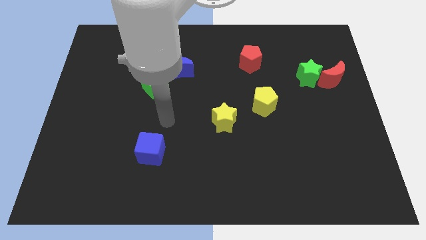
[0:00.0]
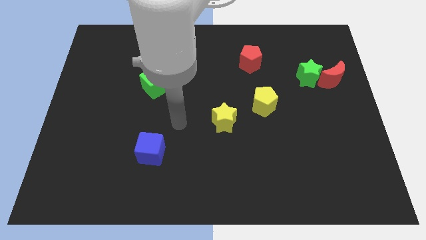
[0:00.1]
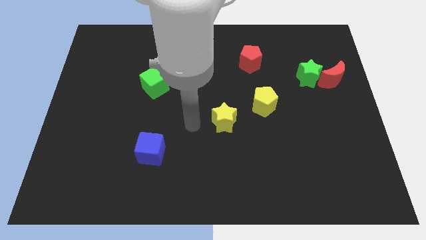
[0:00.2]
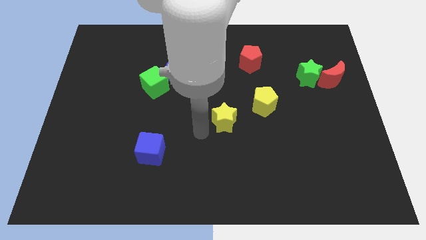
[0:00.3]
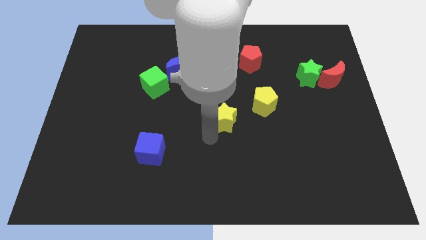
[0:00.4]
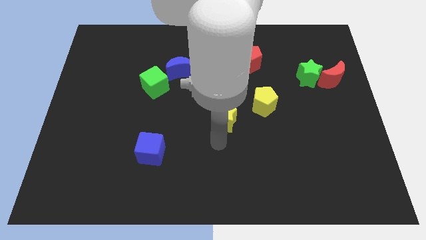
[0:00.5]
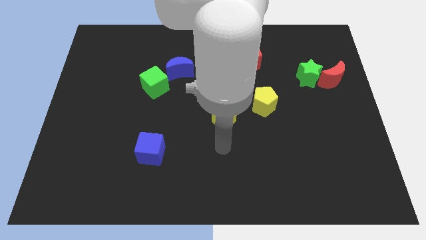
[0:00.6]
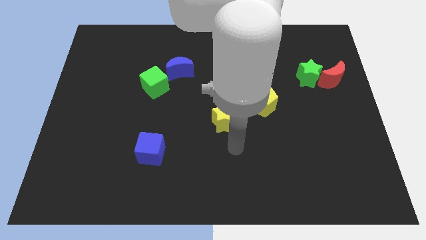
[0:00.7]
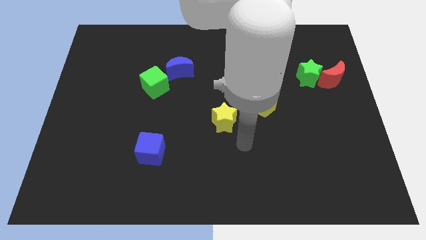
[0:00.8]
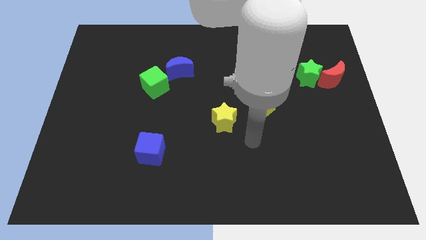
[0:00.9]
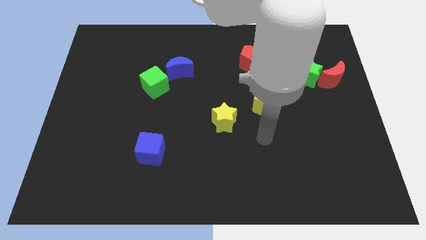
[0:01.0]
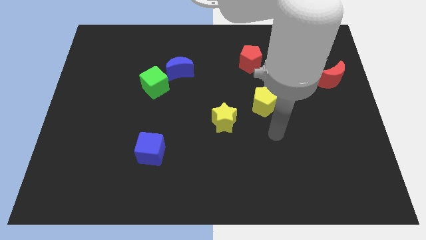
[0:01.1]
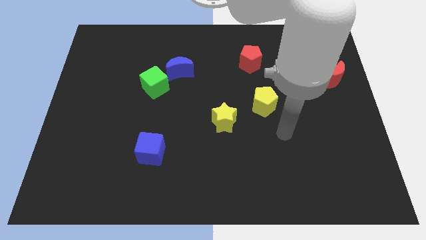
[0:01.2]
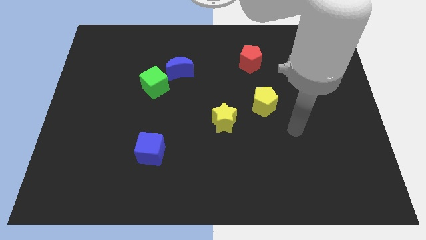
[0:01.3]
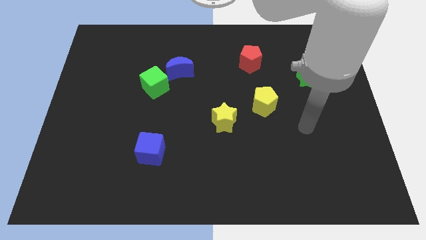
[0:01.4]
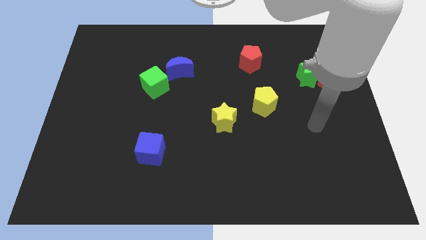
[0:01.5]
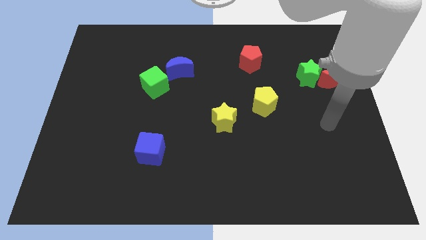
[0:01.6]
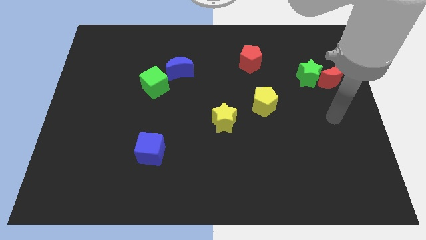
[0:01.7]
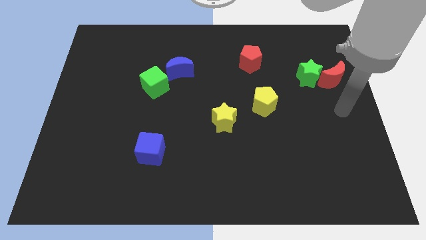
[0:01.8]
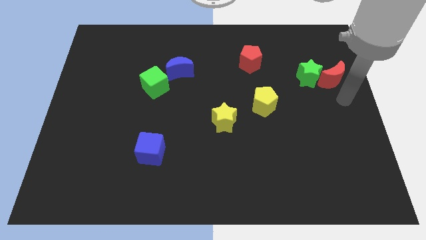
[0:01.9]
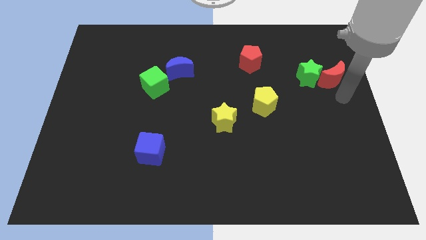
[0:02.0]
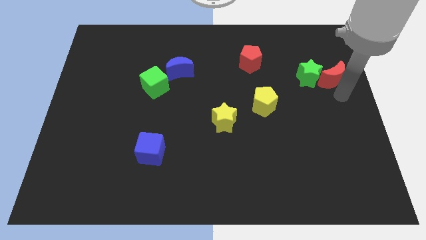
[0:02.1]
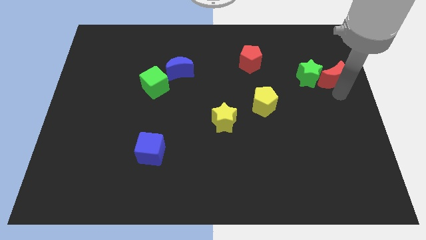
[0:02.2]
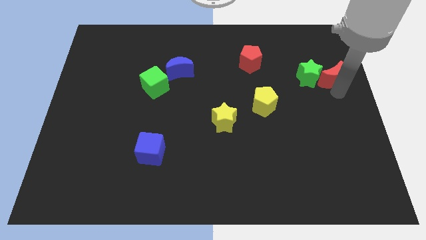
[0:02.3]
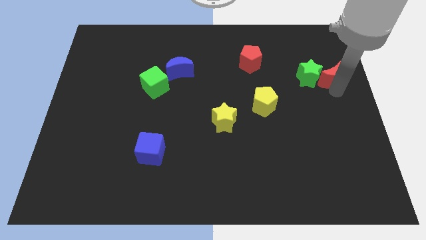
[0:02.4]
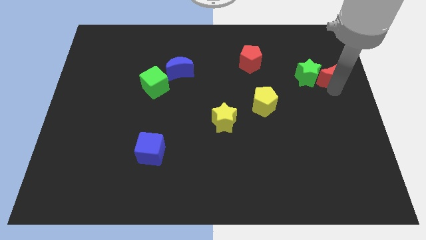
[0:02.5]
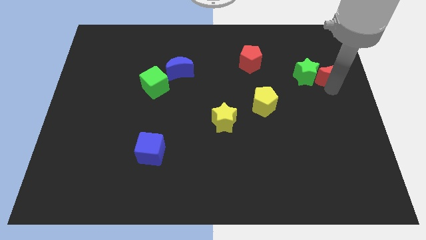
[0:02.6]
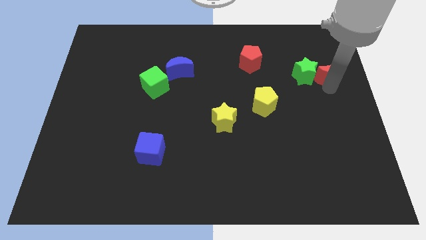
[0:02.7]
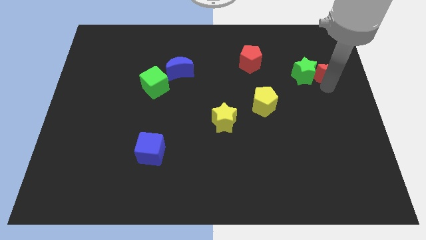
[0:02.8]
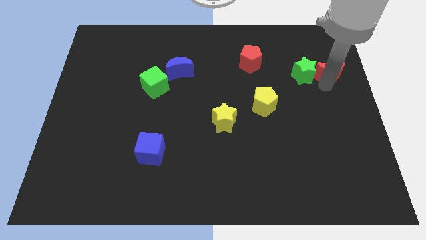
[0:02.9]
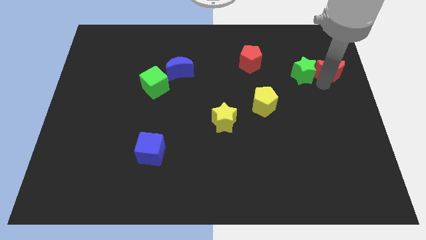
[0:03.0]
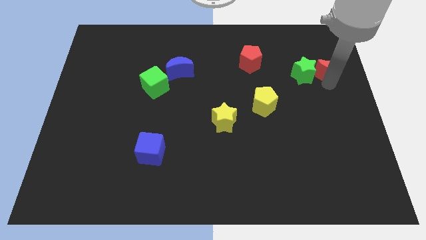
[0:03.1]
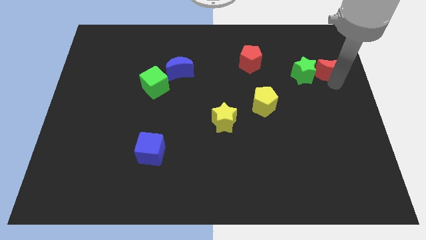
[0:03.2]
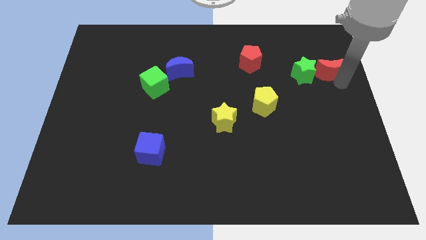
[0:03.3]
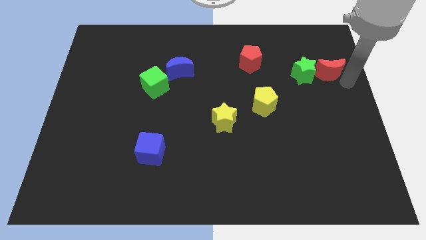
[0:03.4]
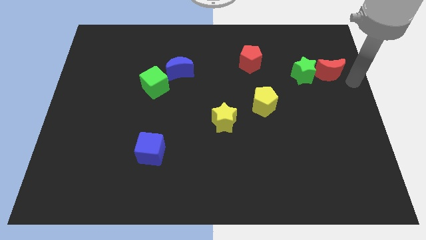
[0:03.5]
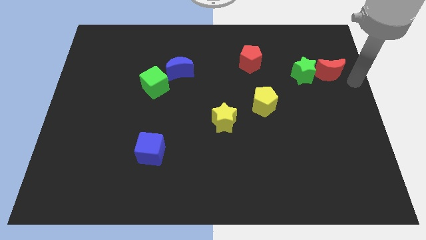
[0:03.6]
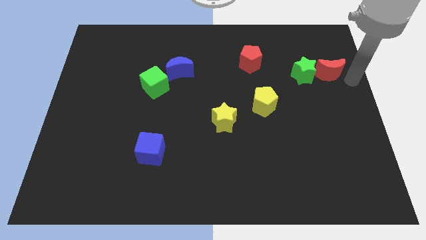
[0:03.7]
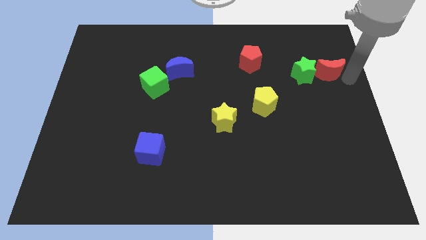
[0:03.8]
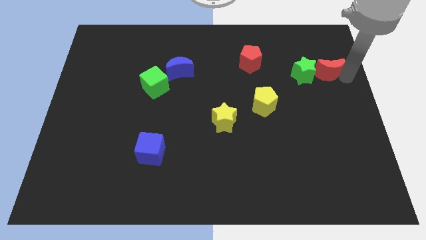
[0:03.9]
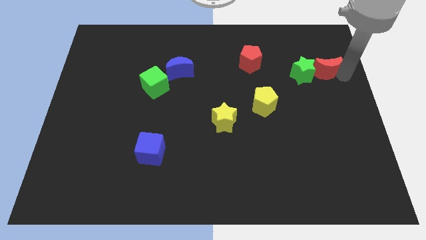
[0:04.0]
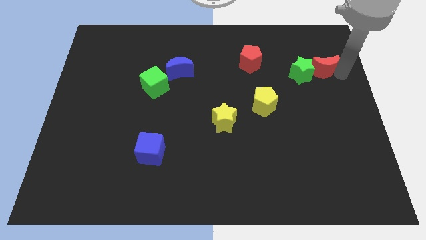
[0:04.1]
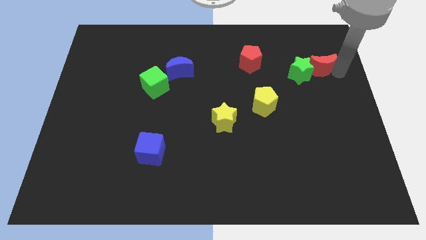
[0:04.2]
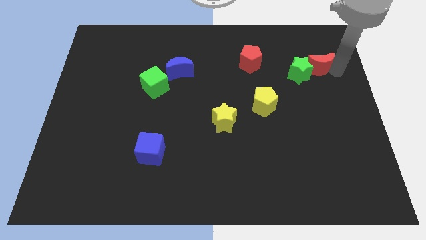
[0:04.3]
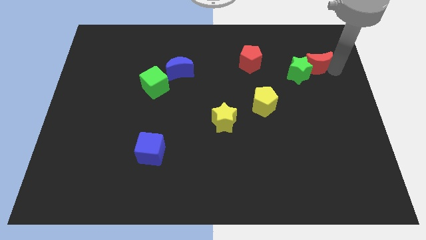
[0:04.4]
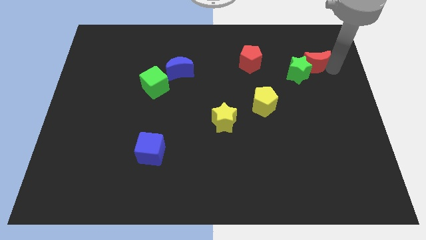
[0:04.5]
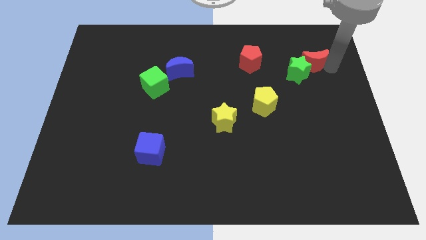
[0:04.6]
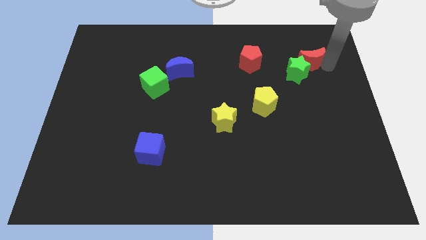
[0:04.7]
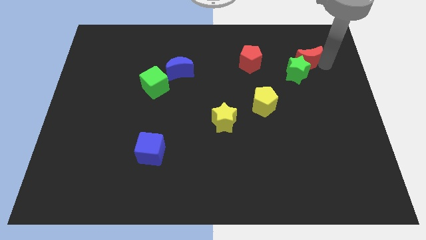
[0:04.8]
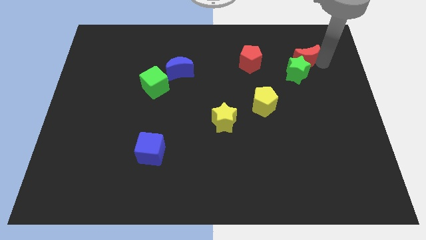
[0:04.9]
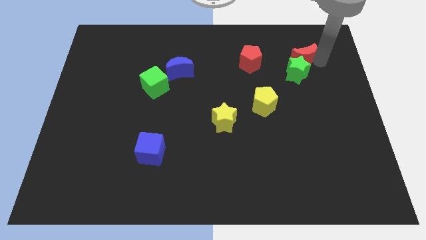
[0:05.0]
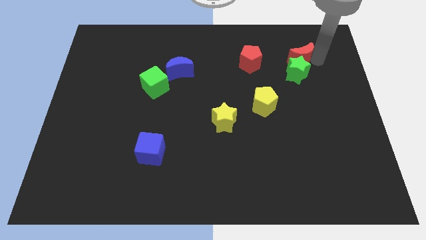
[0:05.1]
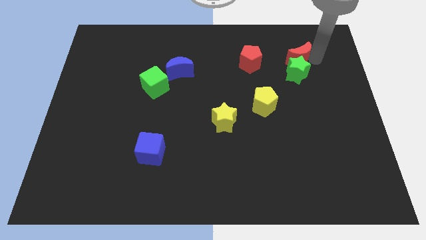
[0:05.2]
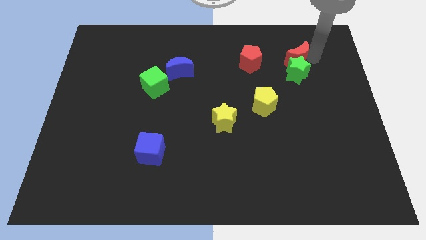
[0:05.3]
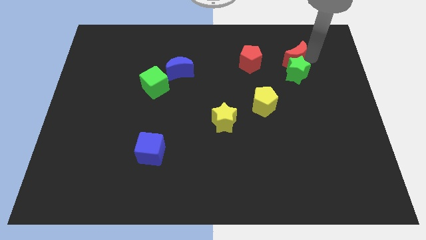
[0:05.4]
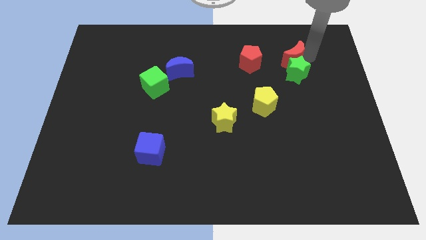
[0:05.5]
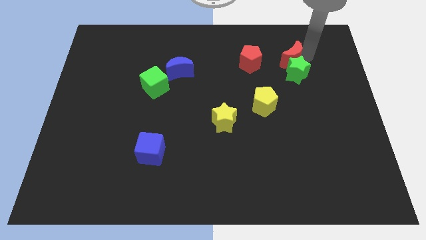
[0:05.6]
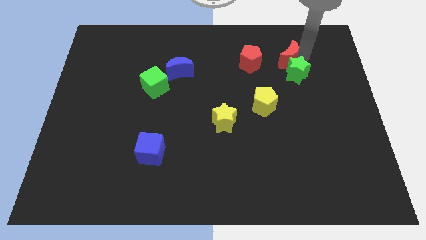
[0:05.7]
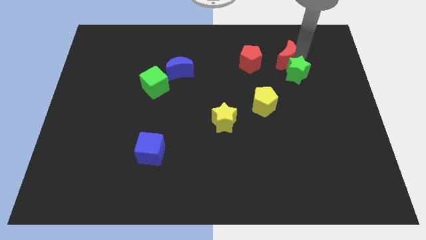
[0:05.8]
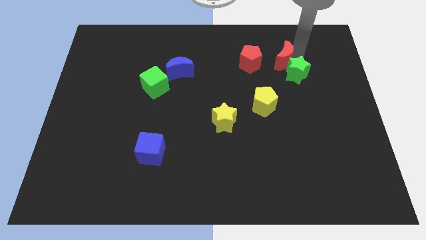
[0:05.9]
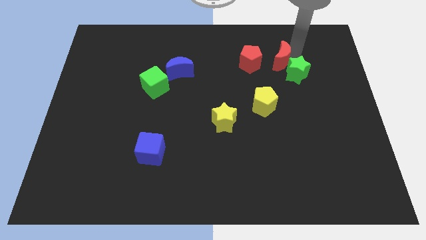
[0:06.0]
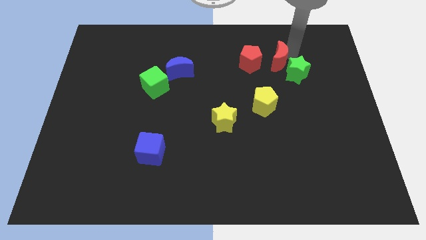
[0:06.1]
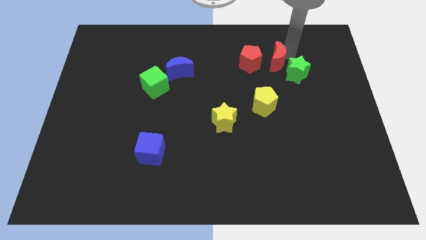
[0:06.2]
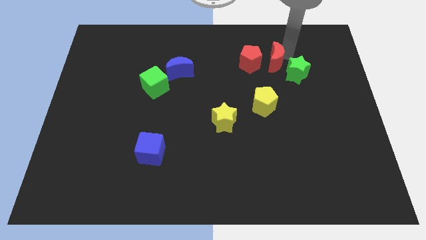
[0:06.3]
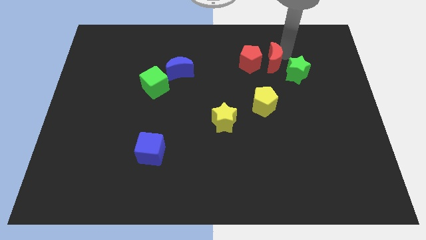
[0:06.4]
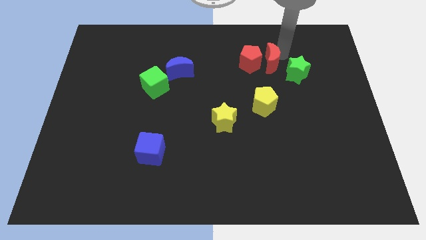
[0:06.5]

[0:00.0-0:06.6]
move the red moon to the red pentagon
